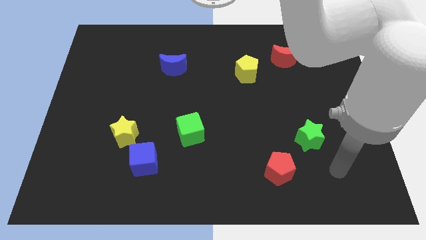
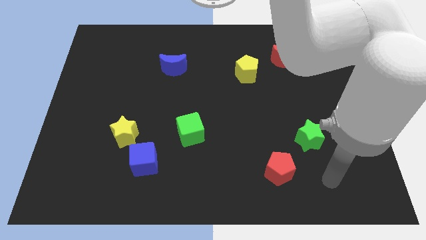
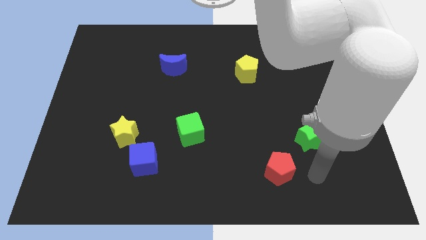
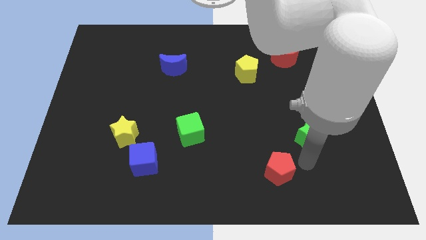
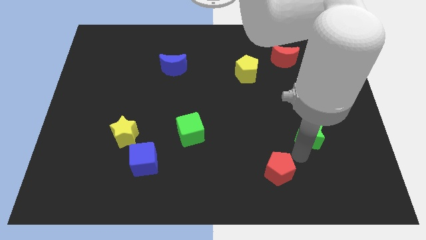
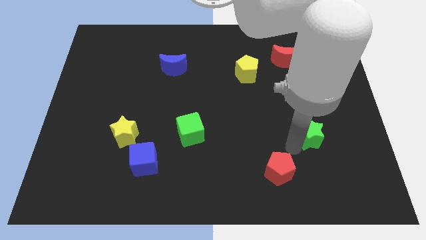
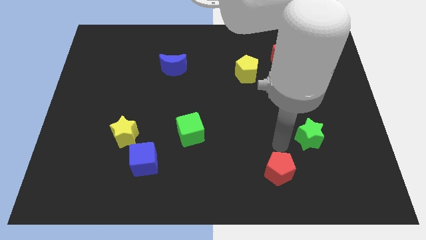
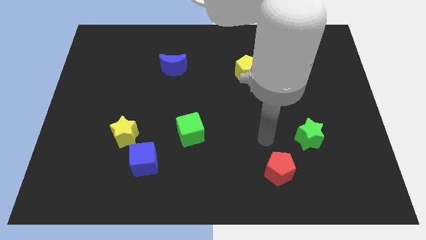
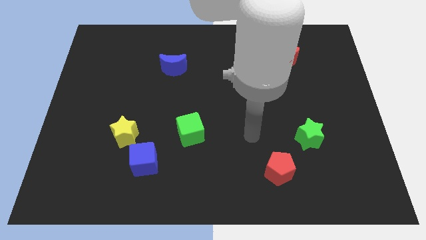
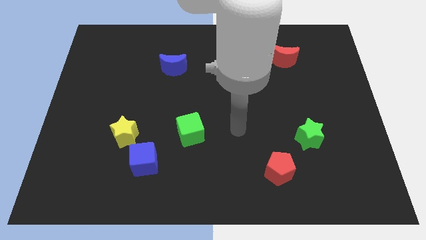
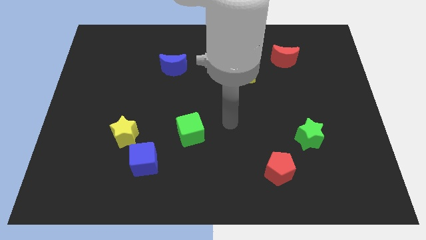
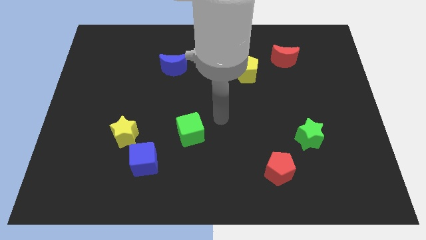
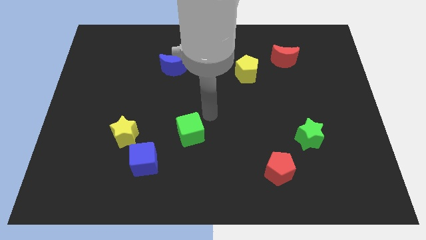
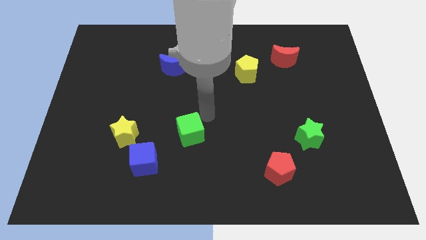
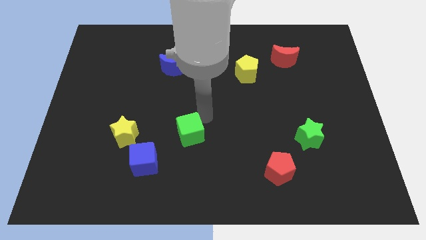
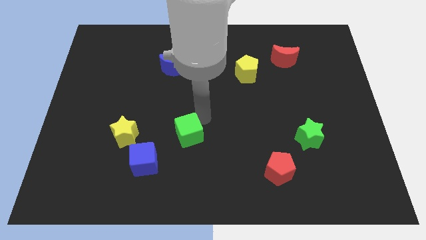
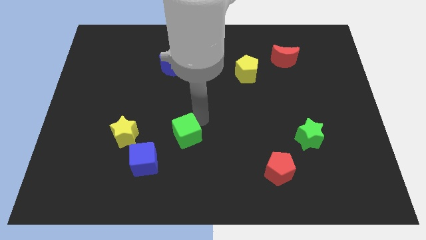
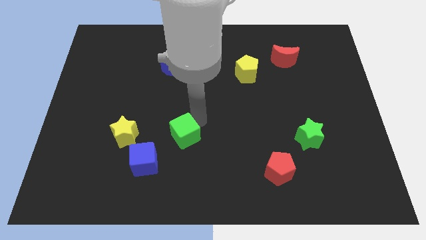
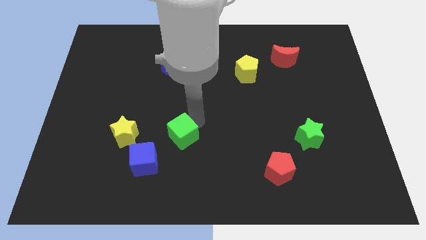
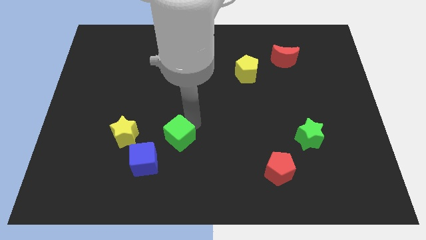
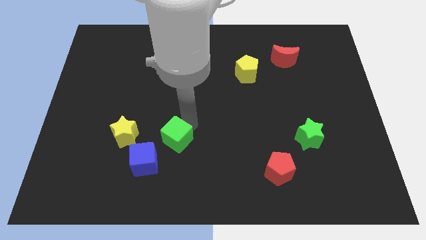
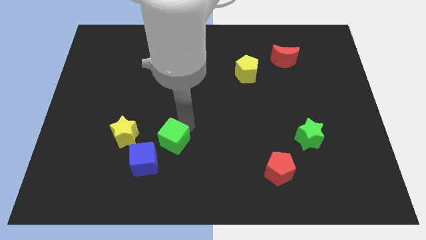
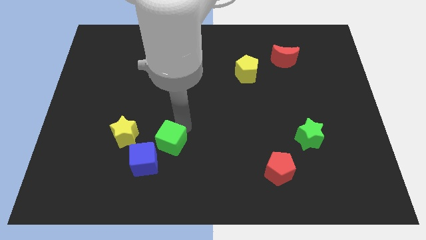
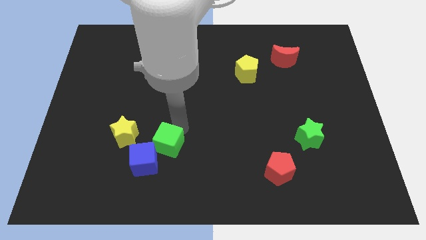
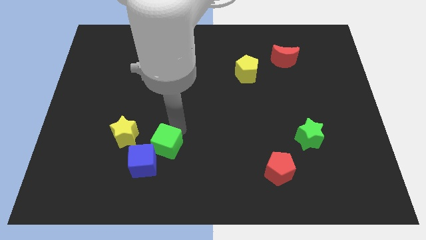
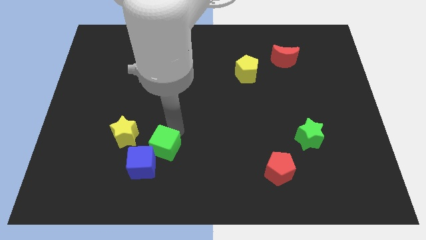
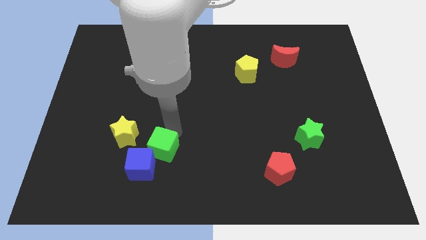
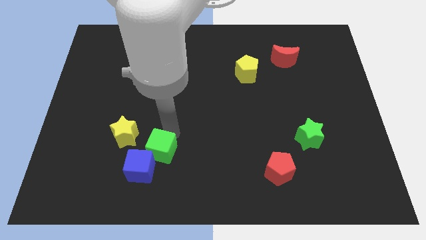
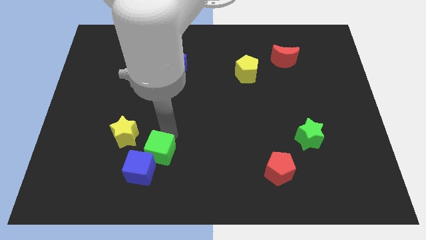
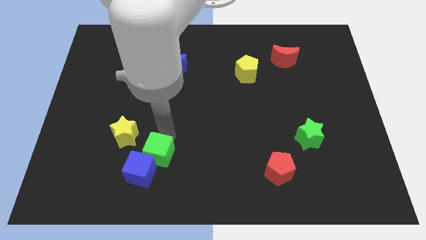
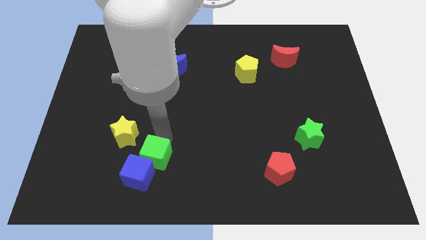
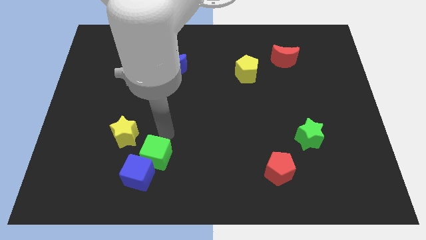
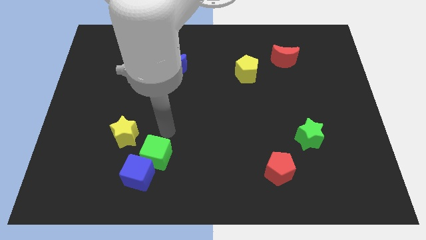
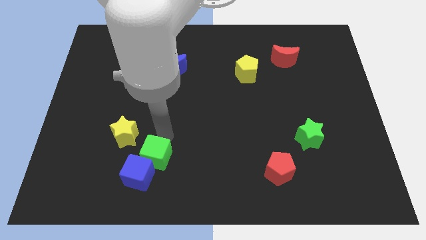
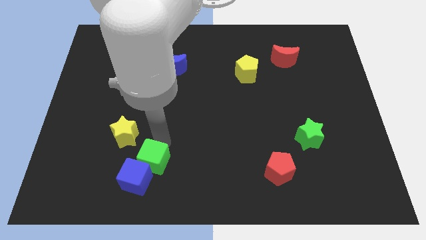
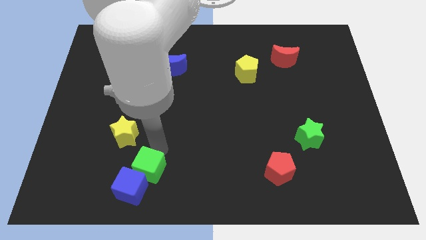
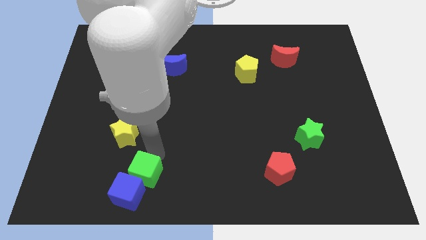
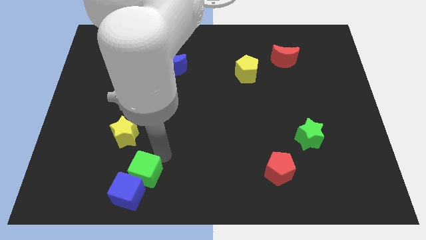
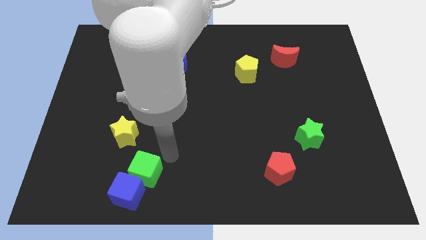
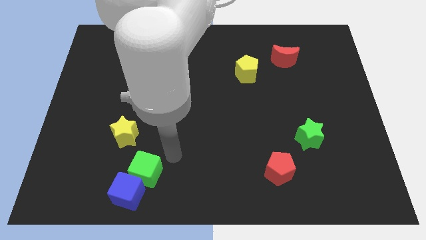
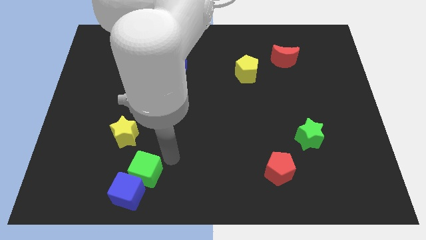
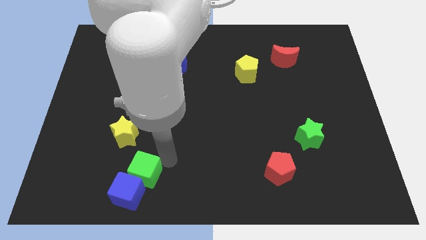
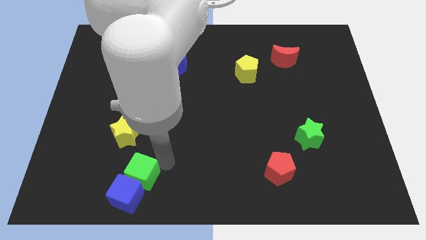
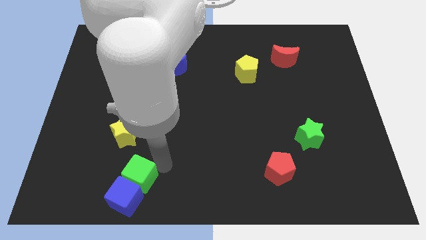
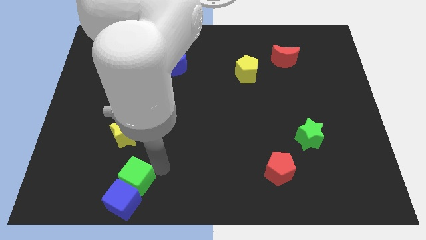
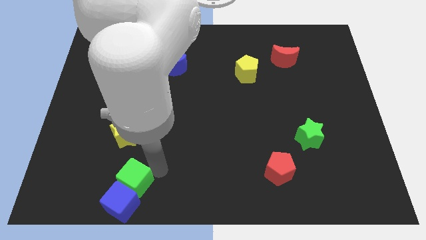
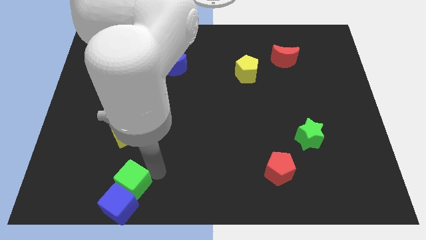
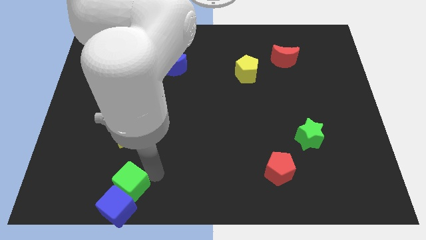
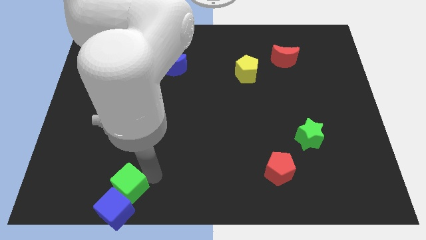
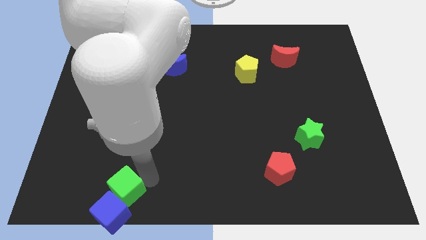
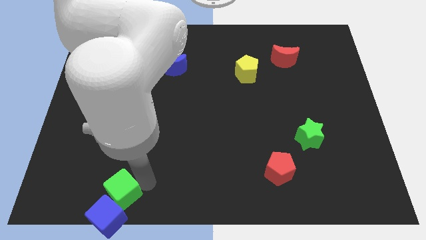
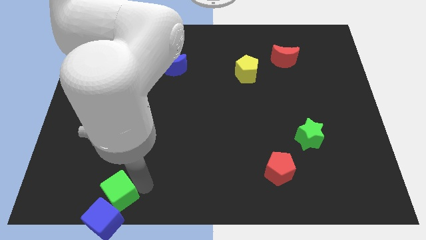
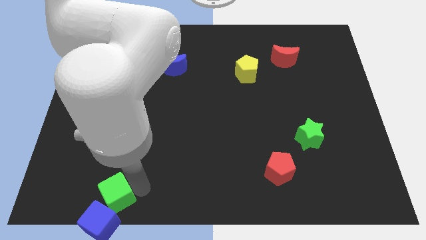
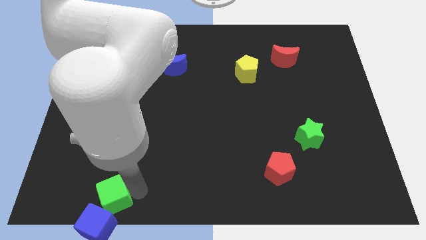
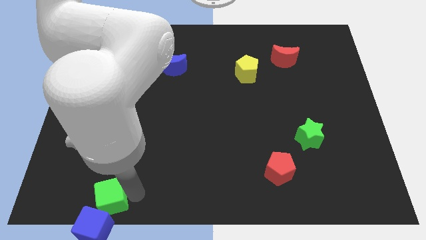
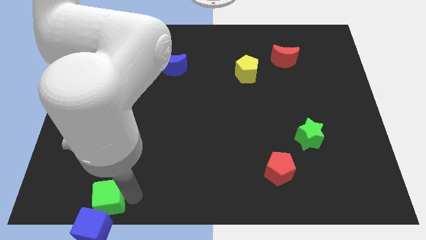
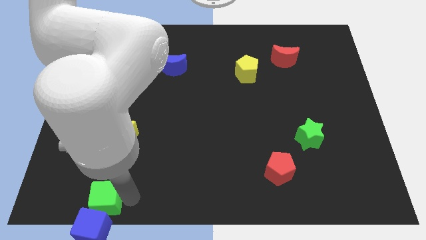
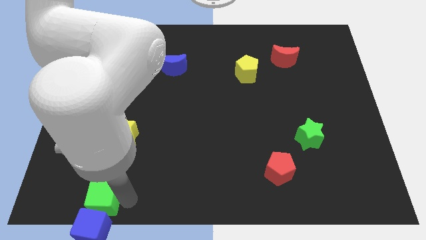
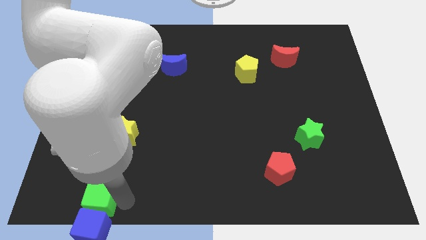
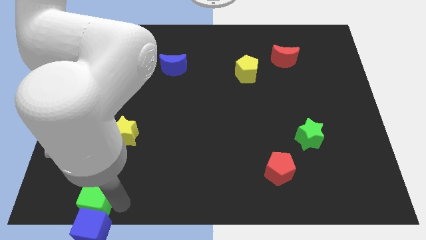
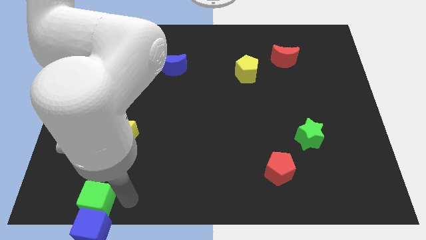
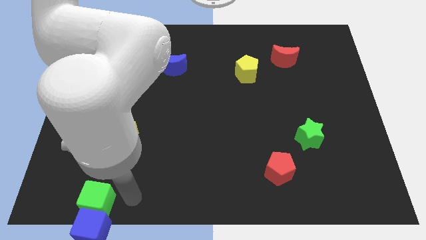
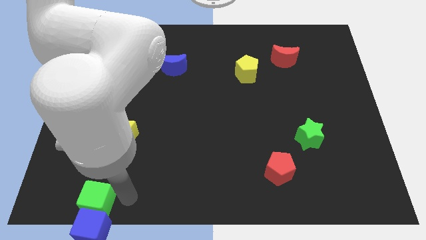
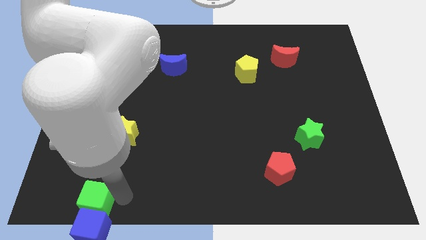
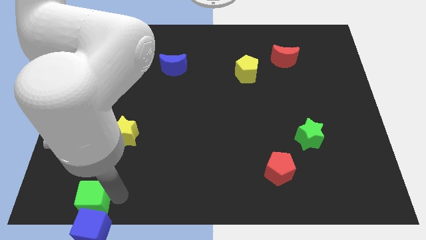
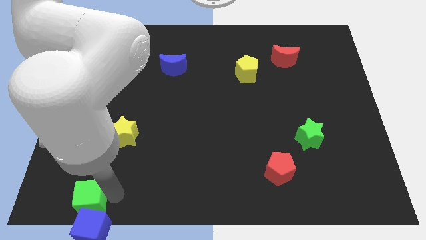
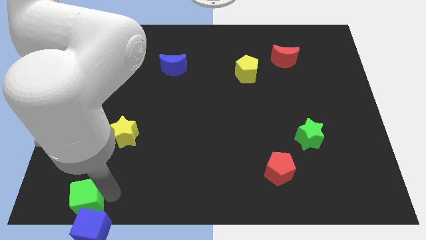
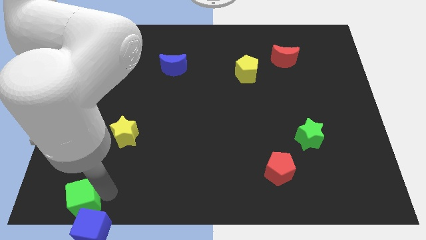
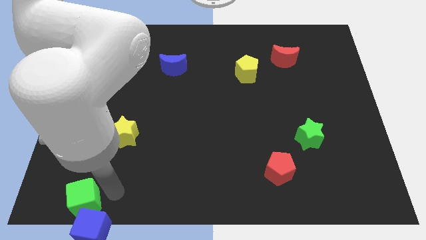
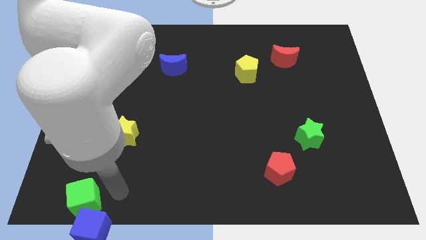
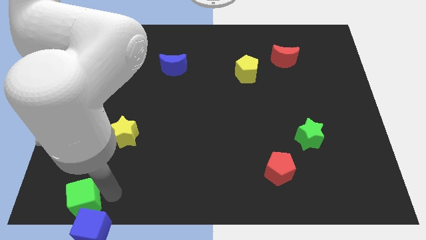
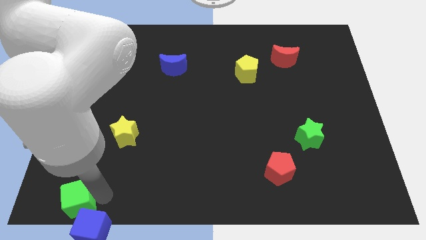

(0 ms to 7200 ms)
push the green cube to the bottom left corner
